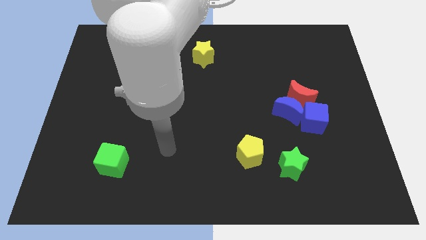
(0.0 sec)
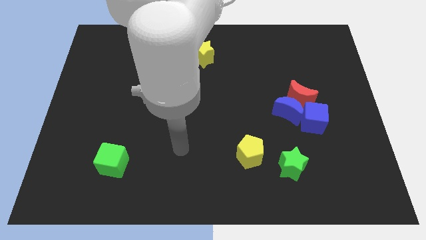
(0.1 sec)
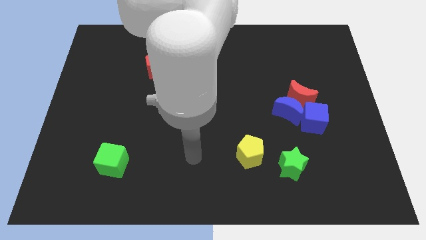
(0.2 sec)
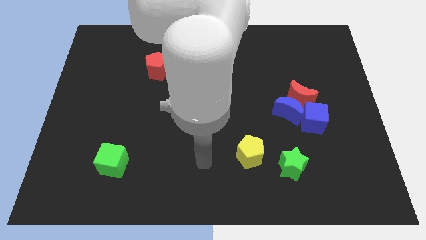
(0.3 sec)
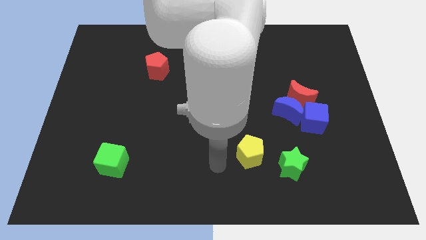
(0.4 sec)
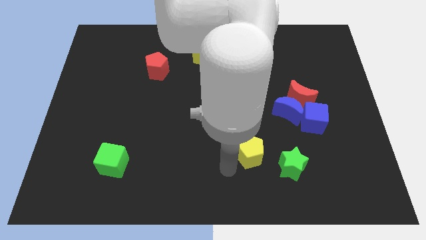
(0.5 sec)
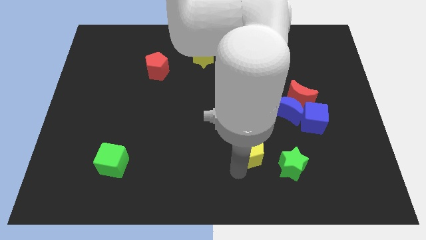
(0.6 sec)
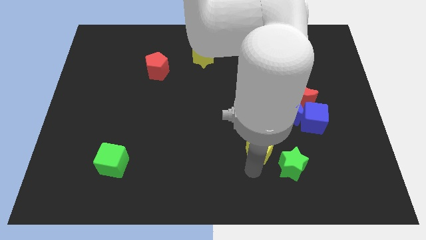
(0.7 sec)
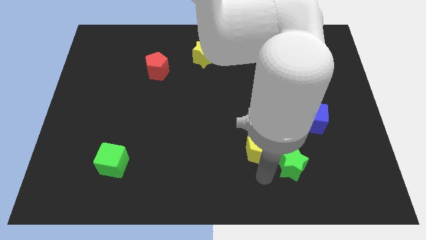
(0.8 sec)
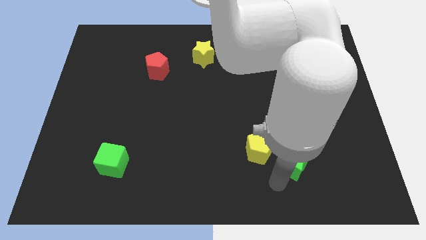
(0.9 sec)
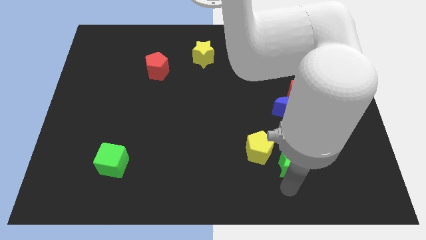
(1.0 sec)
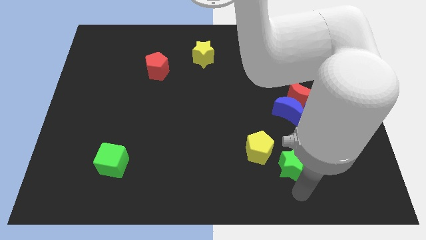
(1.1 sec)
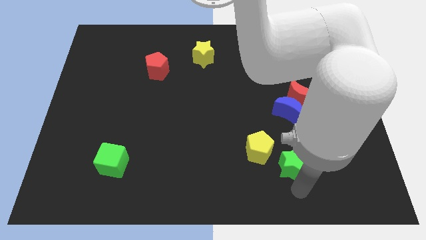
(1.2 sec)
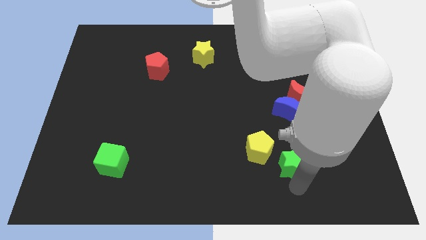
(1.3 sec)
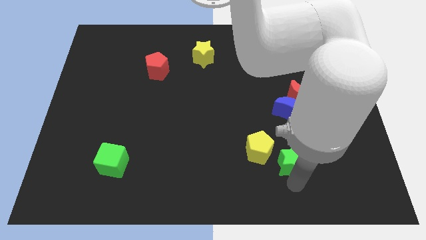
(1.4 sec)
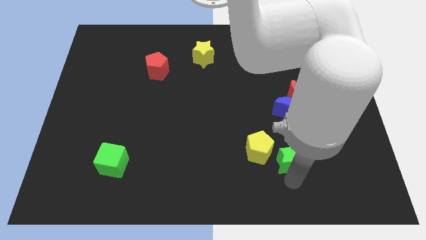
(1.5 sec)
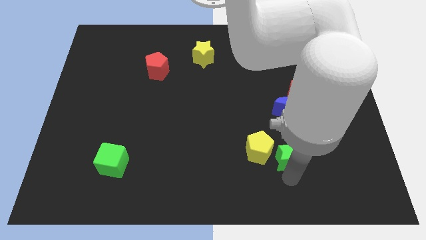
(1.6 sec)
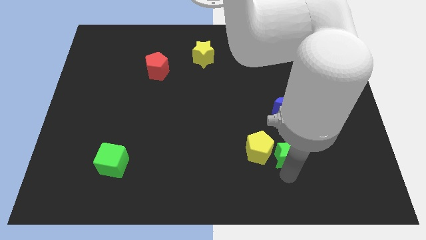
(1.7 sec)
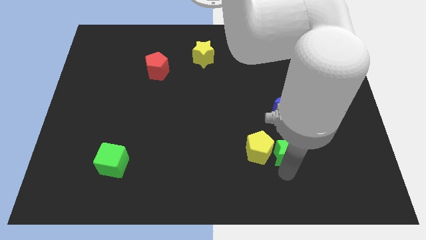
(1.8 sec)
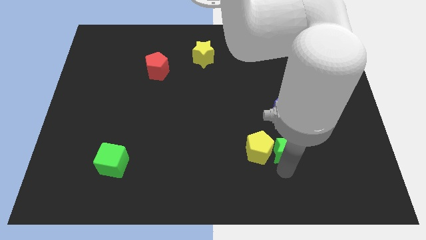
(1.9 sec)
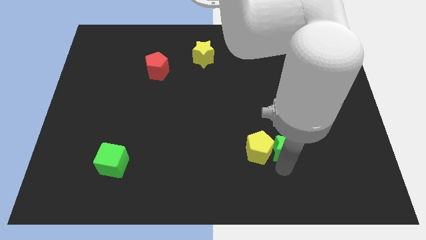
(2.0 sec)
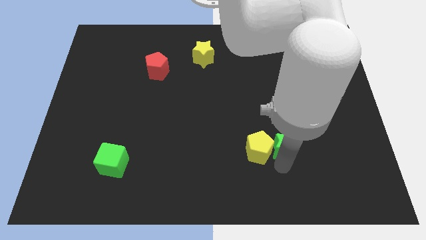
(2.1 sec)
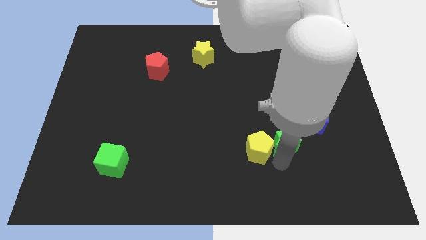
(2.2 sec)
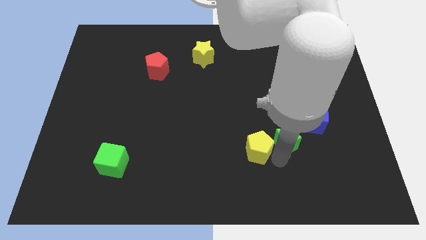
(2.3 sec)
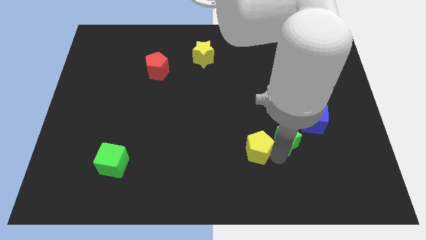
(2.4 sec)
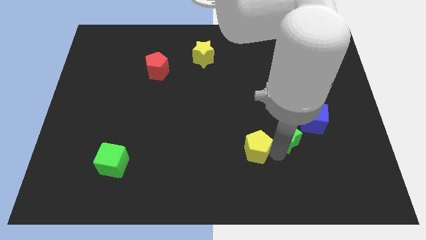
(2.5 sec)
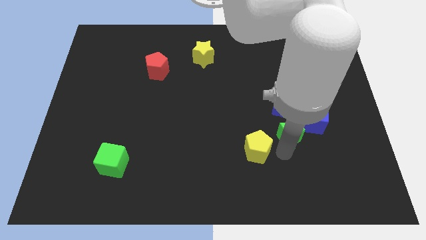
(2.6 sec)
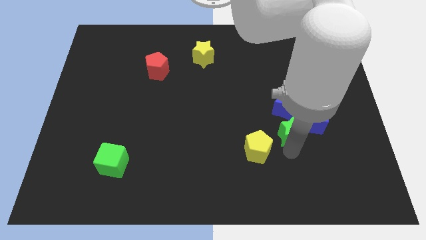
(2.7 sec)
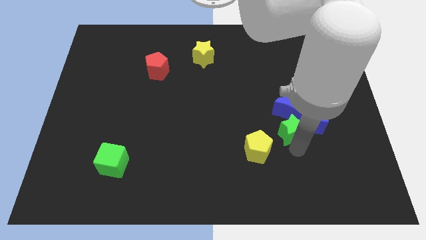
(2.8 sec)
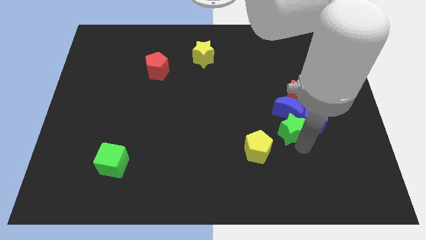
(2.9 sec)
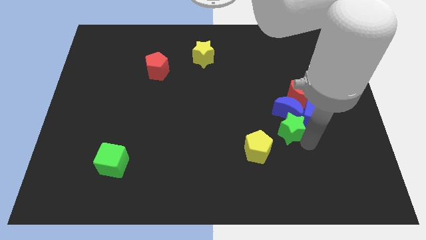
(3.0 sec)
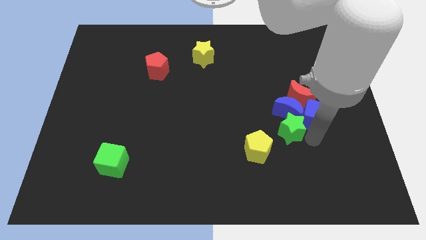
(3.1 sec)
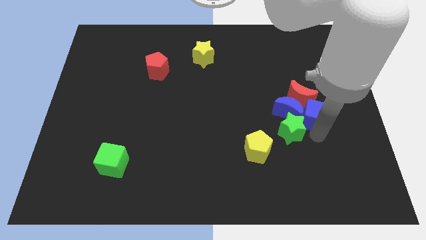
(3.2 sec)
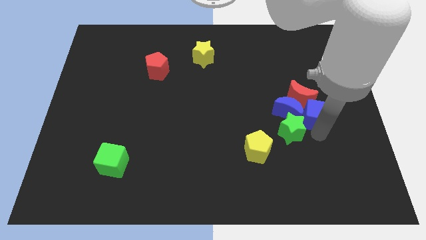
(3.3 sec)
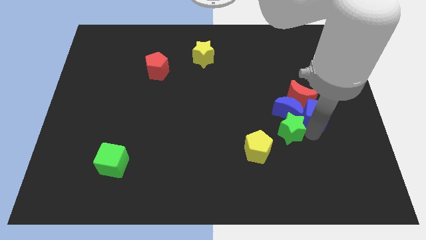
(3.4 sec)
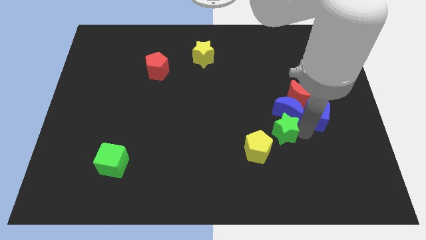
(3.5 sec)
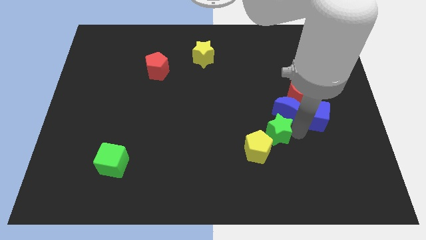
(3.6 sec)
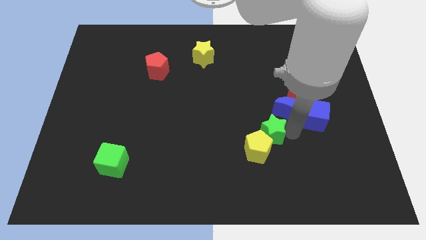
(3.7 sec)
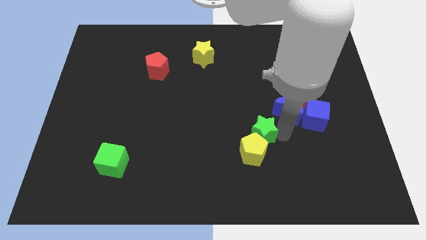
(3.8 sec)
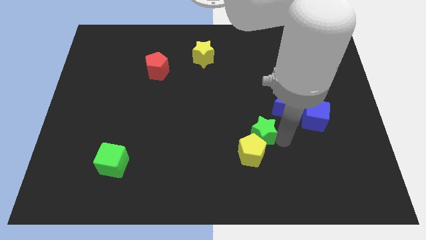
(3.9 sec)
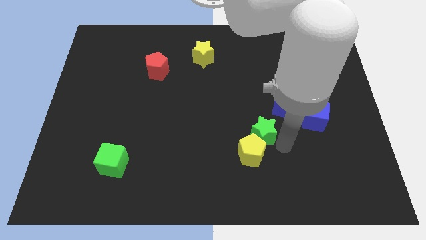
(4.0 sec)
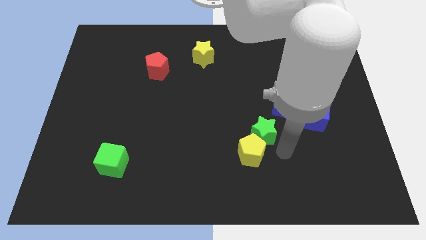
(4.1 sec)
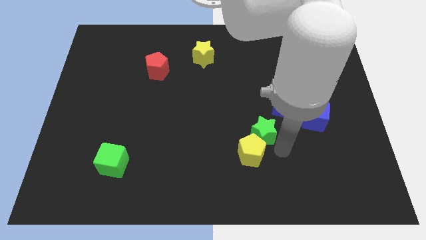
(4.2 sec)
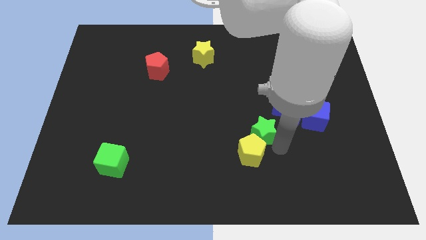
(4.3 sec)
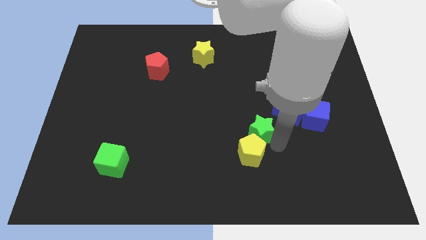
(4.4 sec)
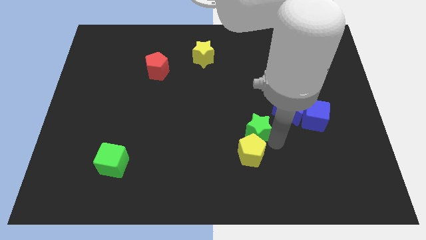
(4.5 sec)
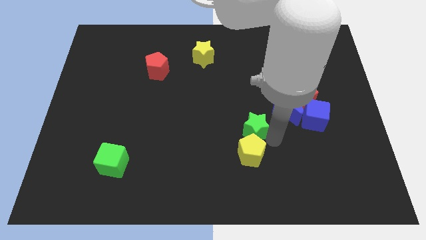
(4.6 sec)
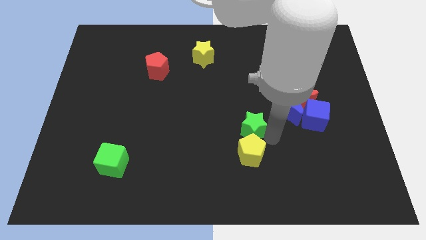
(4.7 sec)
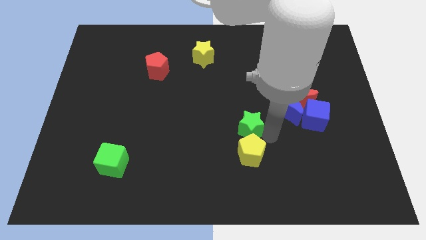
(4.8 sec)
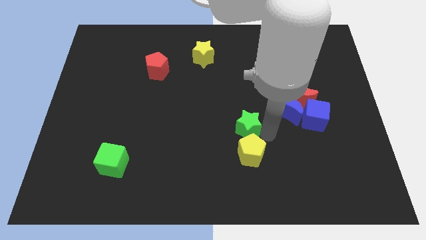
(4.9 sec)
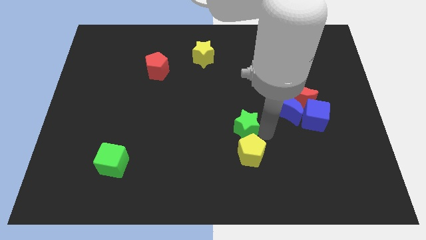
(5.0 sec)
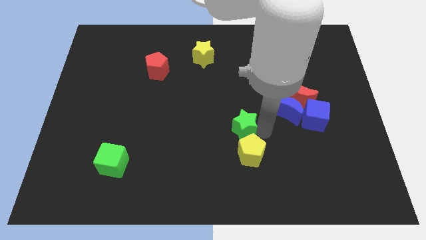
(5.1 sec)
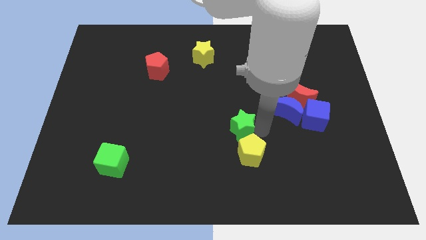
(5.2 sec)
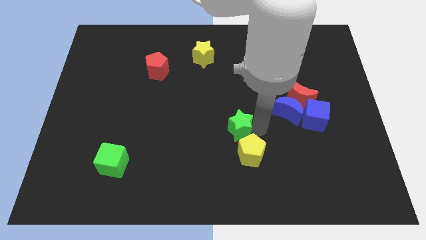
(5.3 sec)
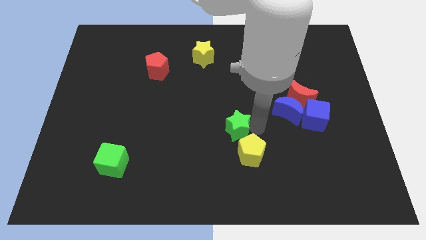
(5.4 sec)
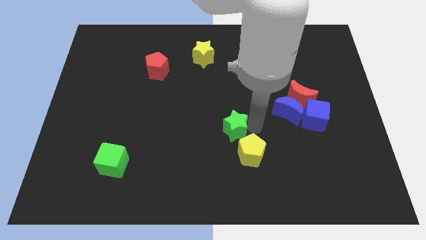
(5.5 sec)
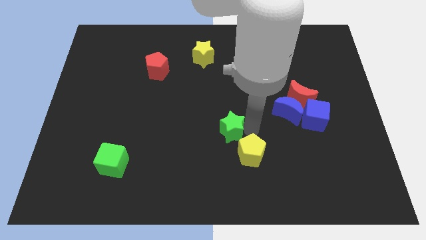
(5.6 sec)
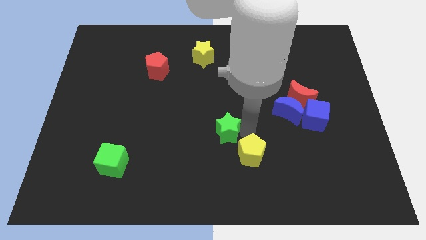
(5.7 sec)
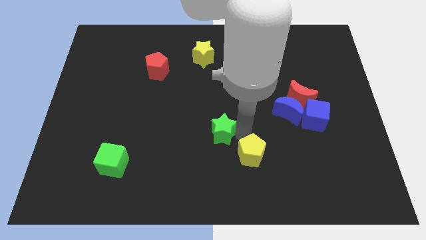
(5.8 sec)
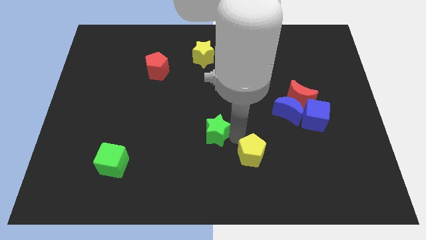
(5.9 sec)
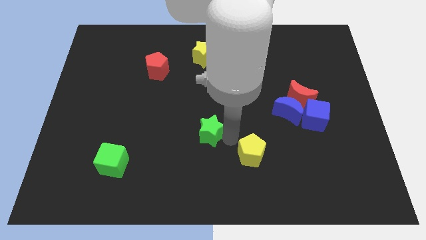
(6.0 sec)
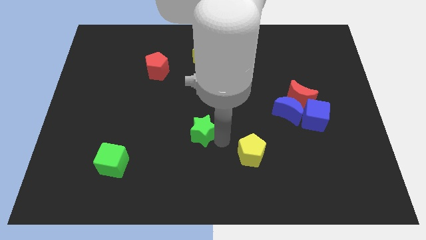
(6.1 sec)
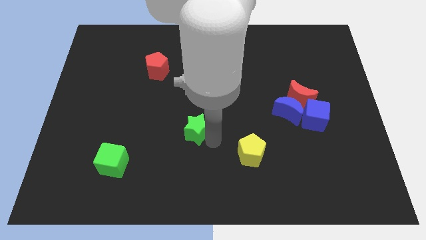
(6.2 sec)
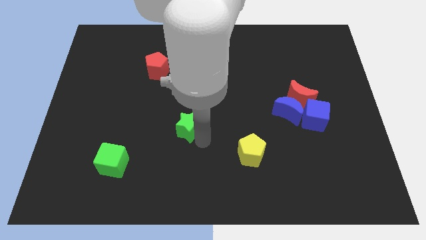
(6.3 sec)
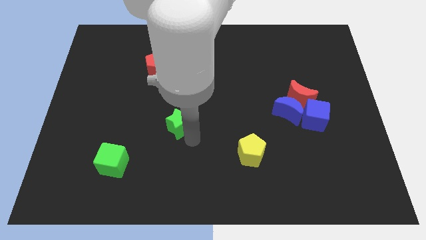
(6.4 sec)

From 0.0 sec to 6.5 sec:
push the green star up and then to the left

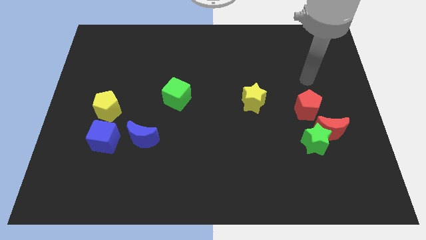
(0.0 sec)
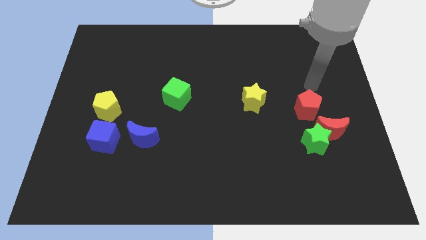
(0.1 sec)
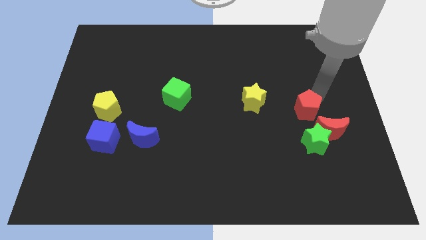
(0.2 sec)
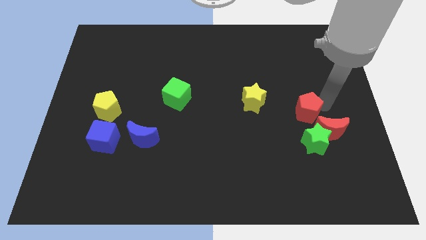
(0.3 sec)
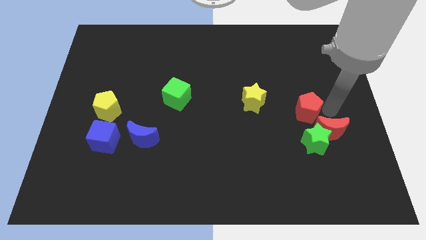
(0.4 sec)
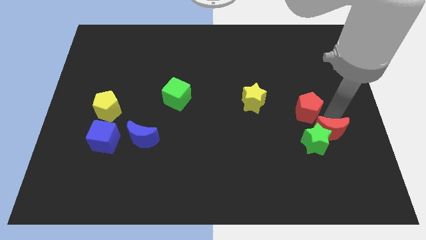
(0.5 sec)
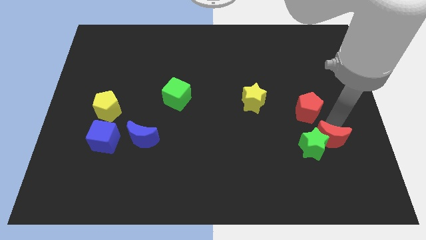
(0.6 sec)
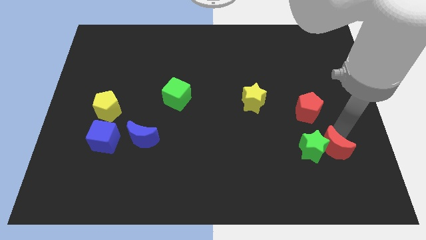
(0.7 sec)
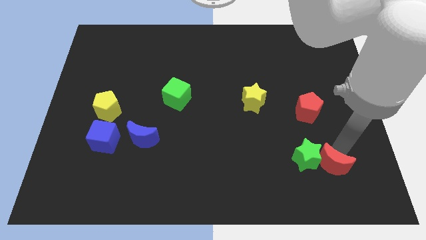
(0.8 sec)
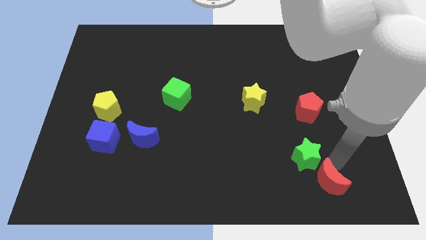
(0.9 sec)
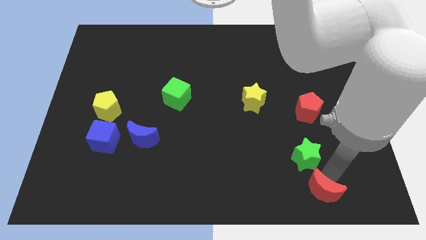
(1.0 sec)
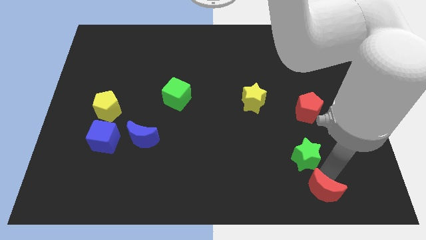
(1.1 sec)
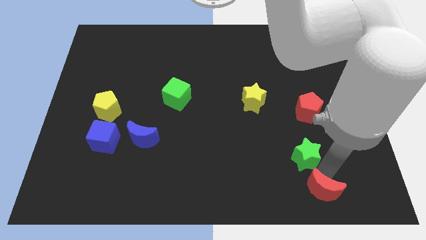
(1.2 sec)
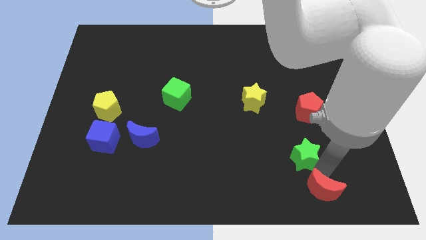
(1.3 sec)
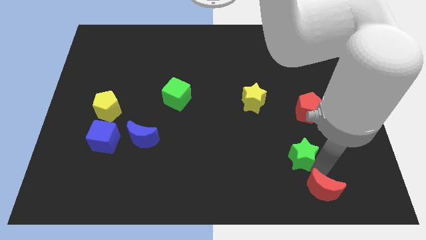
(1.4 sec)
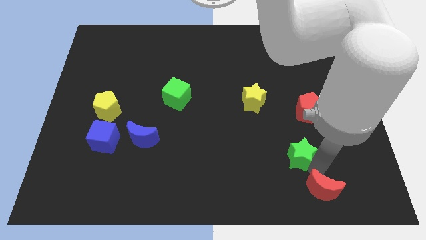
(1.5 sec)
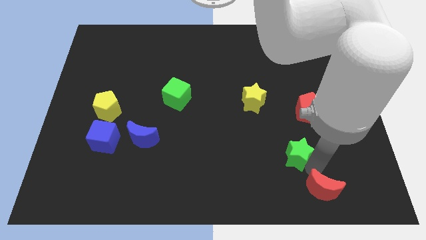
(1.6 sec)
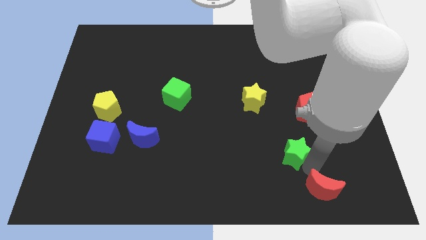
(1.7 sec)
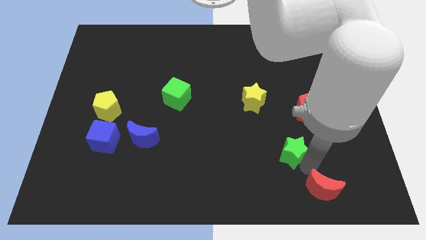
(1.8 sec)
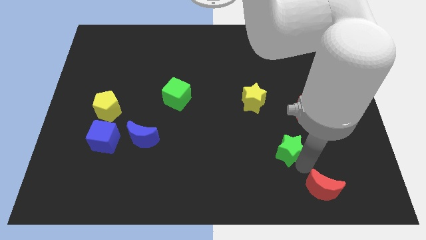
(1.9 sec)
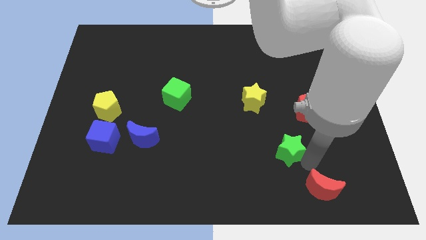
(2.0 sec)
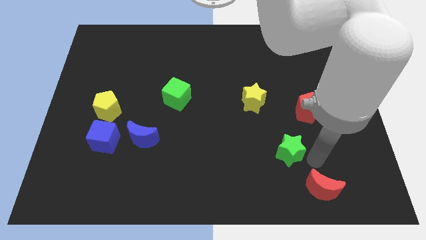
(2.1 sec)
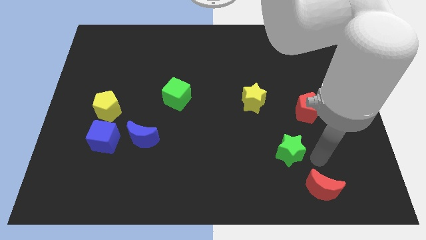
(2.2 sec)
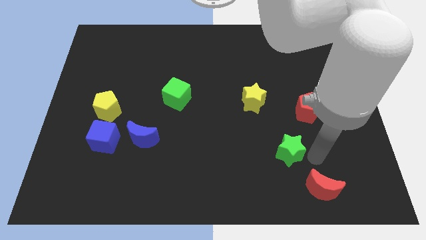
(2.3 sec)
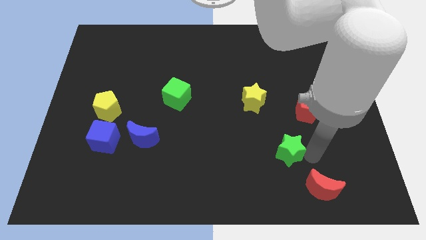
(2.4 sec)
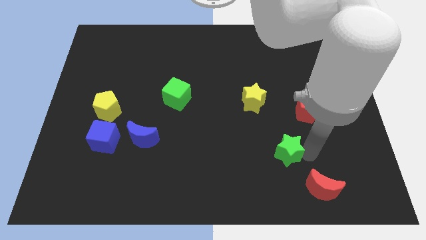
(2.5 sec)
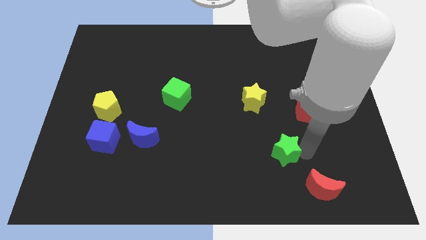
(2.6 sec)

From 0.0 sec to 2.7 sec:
slide the green star somewhat left
